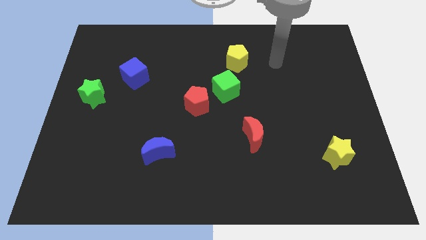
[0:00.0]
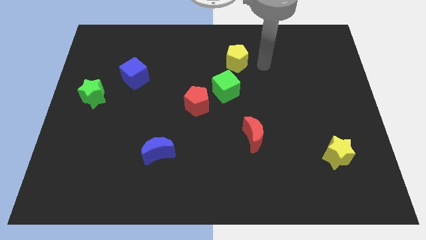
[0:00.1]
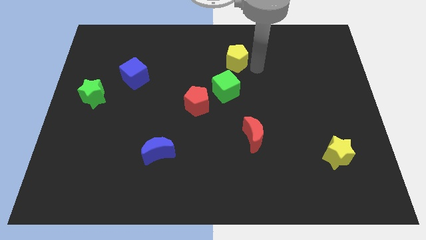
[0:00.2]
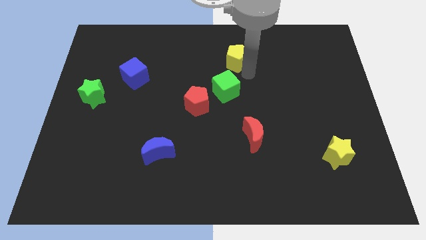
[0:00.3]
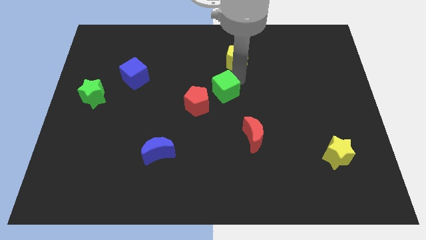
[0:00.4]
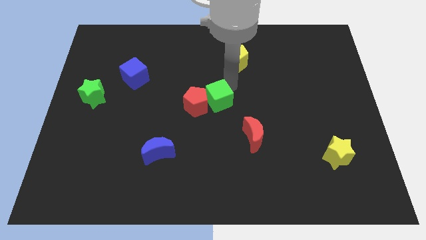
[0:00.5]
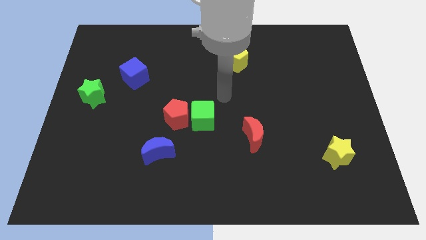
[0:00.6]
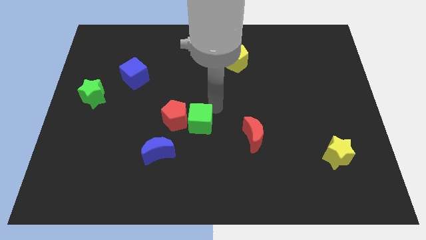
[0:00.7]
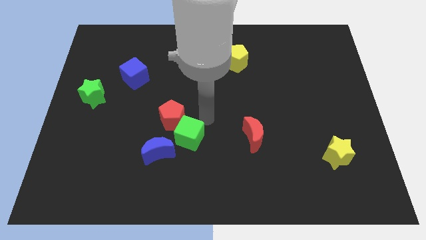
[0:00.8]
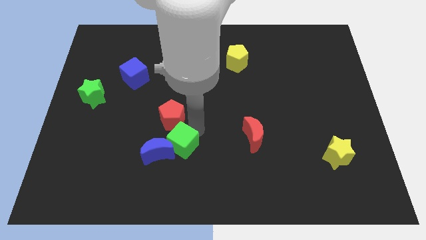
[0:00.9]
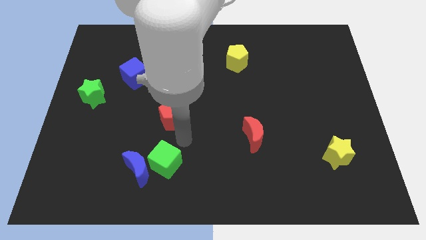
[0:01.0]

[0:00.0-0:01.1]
separate the red pentagon from the green cube

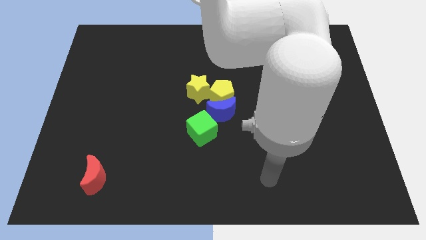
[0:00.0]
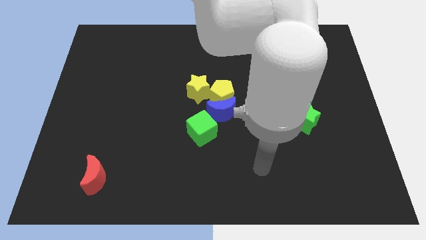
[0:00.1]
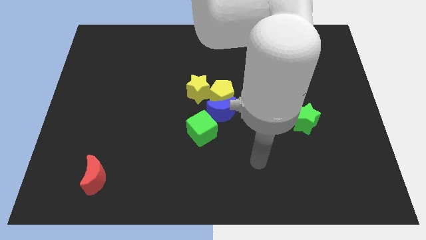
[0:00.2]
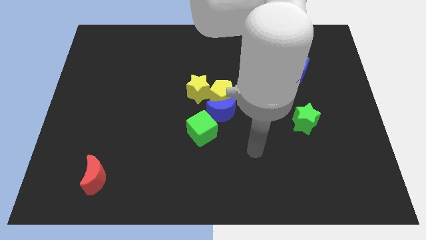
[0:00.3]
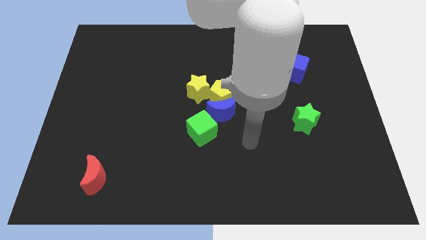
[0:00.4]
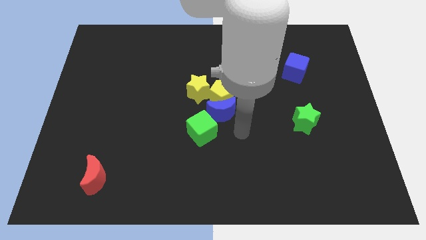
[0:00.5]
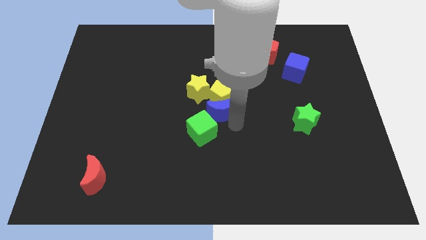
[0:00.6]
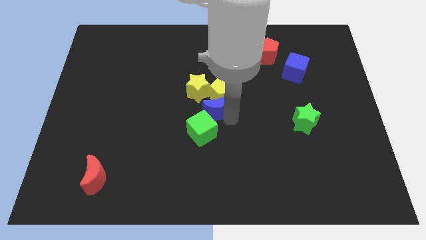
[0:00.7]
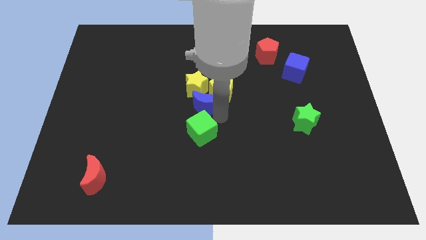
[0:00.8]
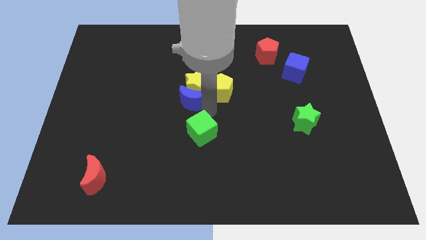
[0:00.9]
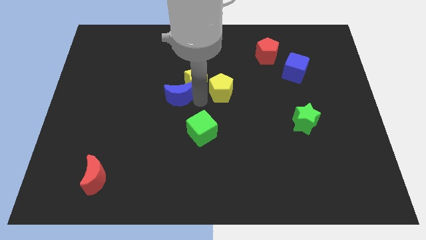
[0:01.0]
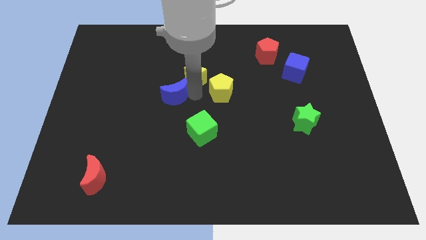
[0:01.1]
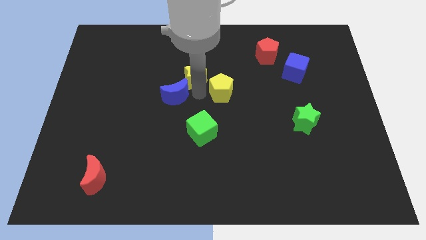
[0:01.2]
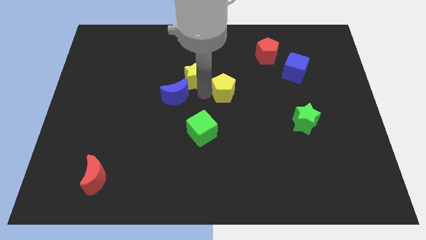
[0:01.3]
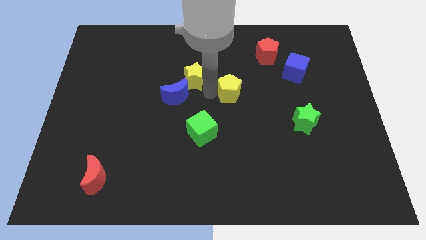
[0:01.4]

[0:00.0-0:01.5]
separate the yellow pentagon from the blue moon and yellow star

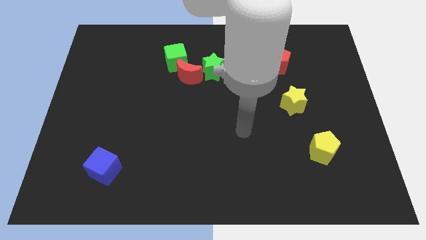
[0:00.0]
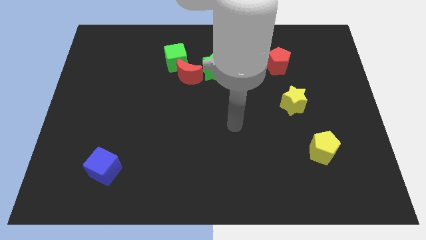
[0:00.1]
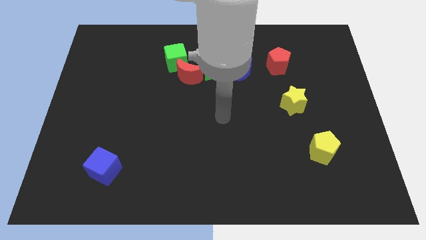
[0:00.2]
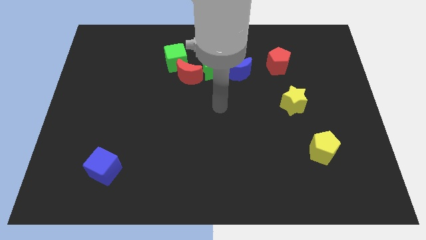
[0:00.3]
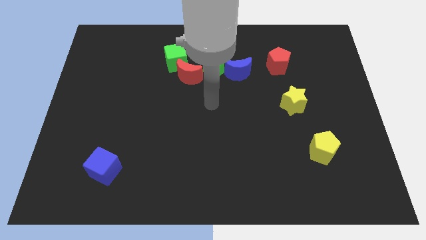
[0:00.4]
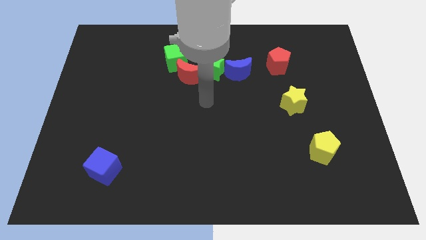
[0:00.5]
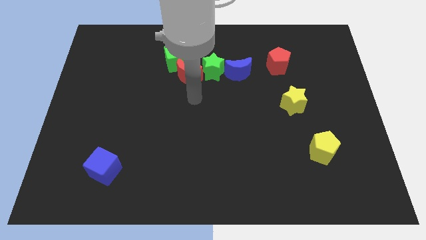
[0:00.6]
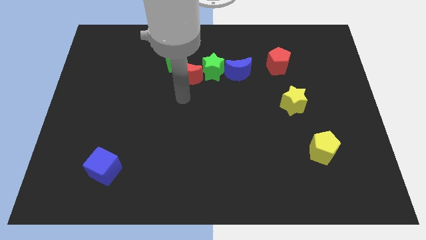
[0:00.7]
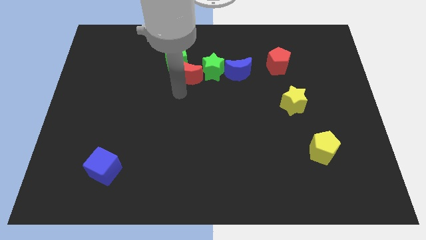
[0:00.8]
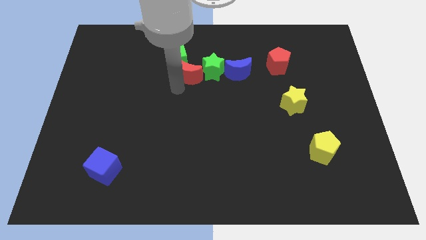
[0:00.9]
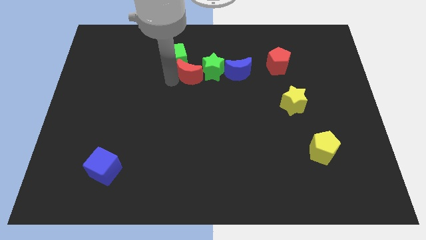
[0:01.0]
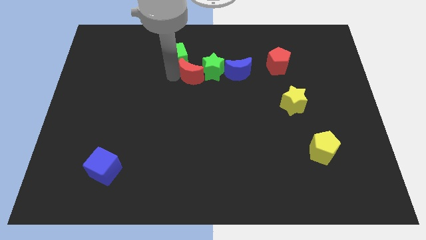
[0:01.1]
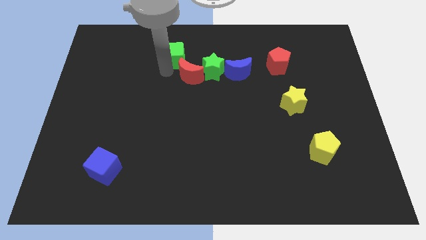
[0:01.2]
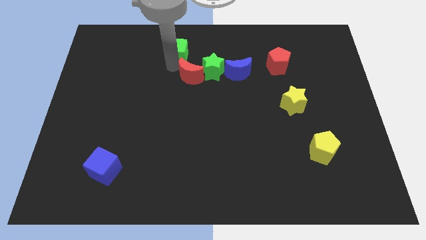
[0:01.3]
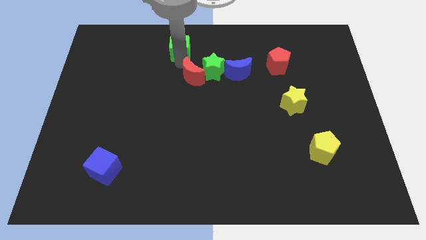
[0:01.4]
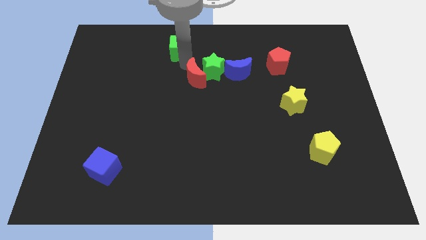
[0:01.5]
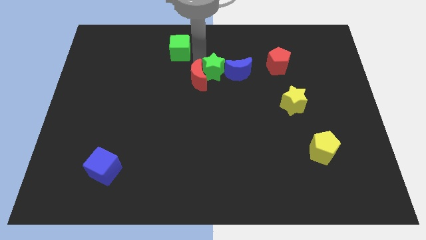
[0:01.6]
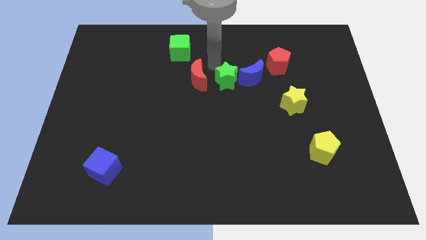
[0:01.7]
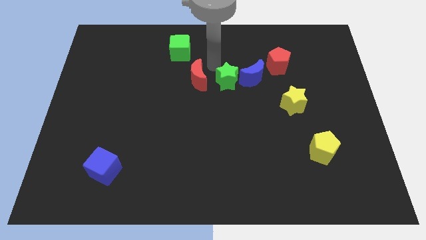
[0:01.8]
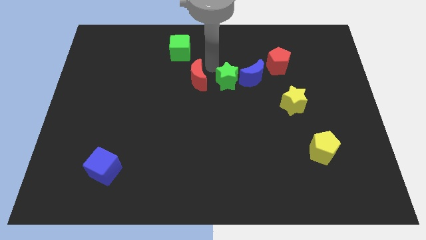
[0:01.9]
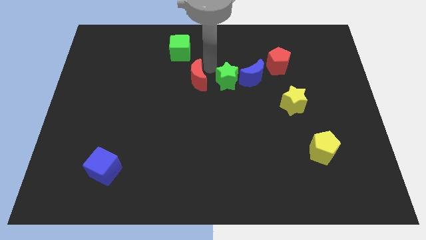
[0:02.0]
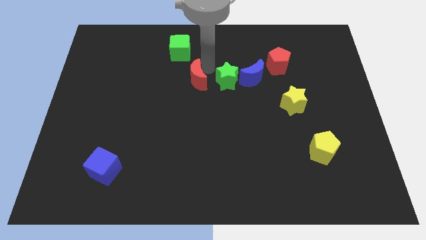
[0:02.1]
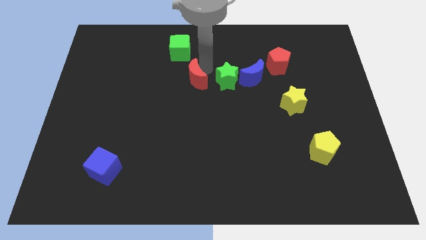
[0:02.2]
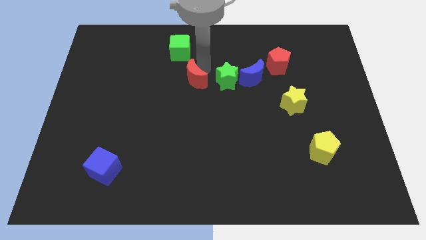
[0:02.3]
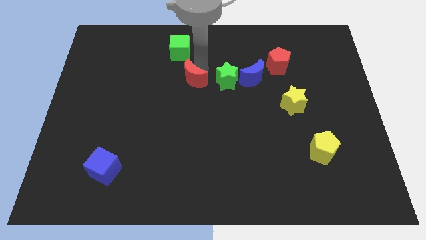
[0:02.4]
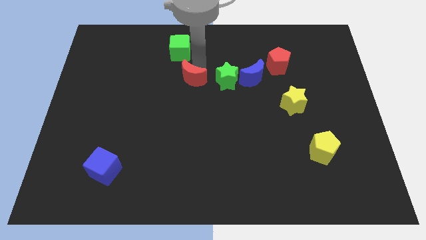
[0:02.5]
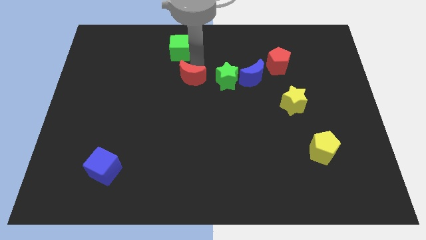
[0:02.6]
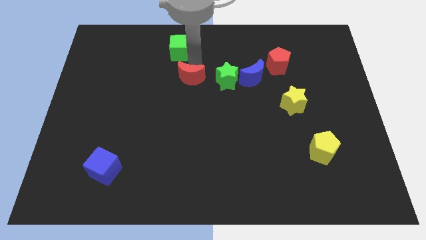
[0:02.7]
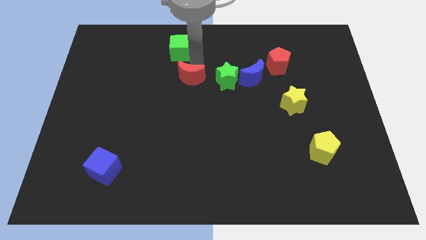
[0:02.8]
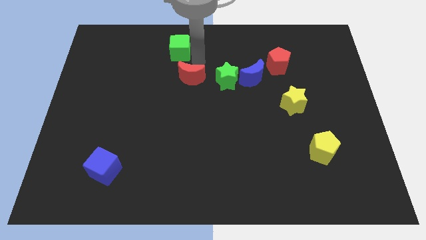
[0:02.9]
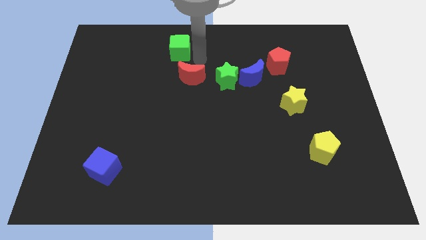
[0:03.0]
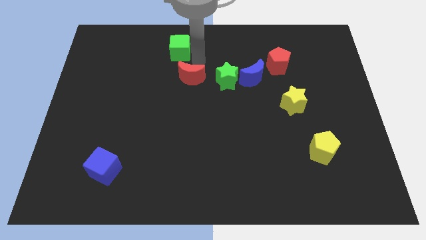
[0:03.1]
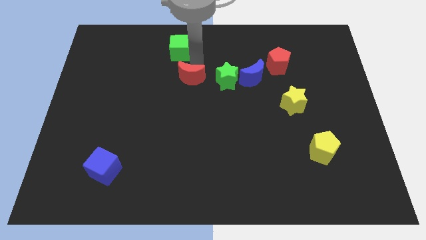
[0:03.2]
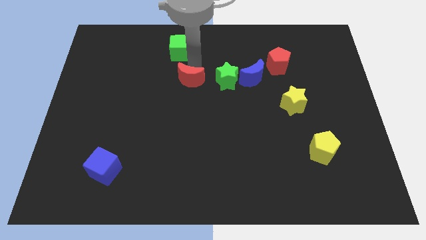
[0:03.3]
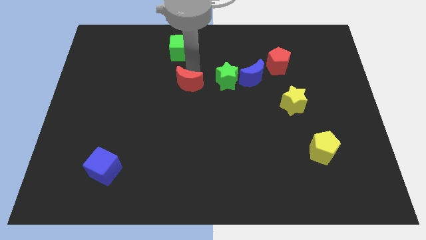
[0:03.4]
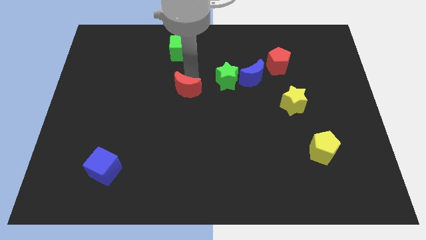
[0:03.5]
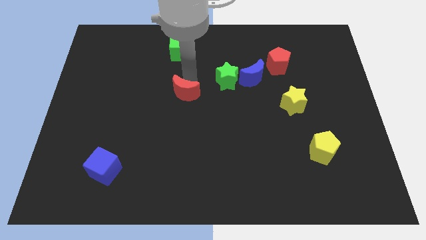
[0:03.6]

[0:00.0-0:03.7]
pull the red moon apart from the green star and green cube

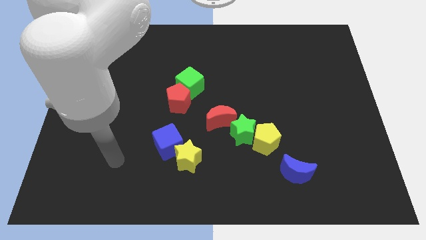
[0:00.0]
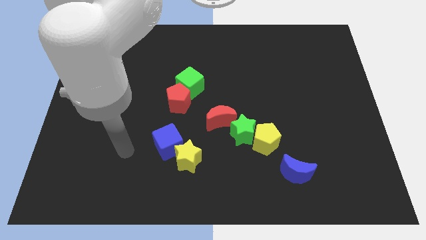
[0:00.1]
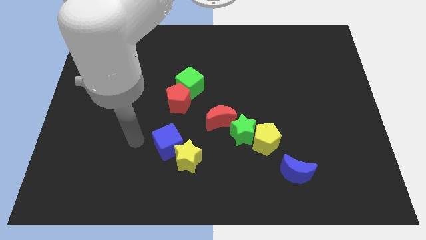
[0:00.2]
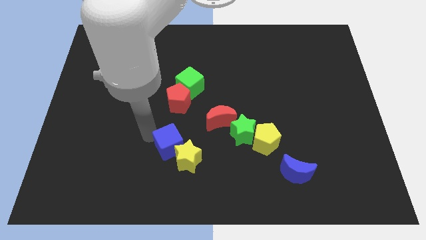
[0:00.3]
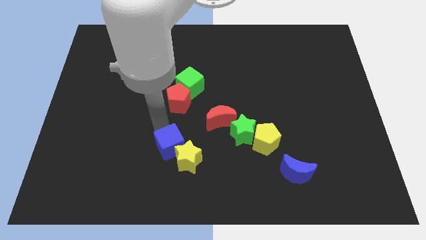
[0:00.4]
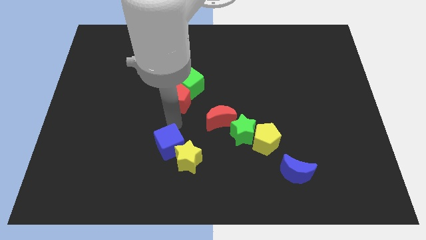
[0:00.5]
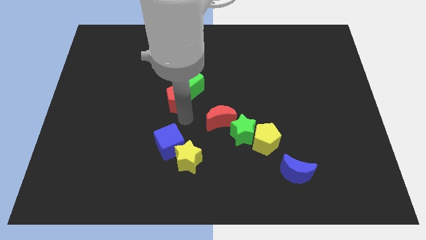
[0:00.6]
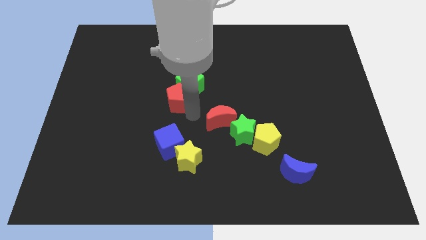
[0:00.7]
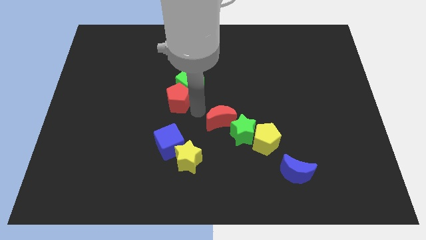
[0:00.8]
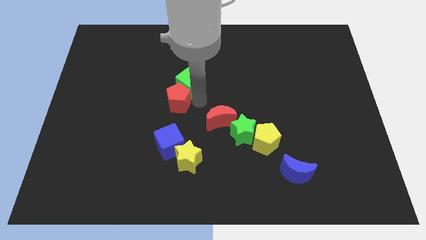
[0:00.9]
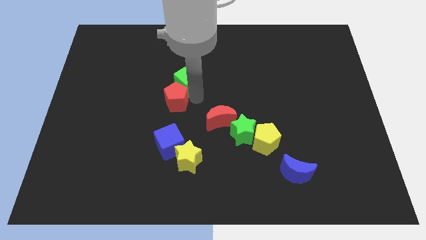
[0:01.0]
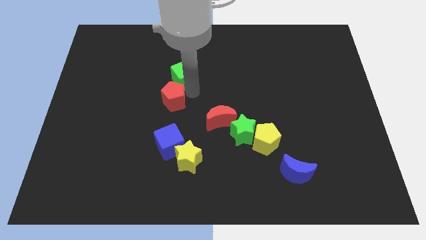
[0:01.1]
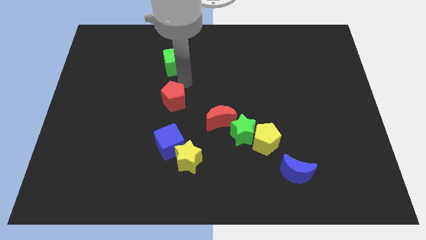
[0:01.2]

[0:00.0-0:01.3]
move the red pentagon away from the green cube

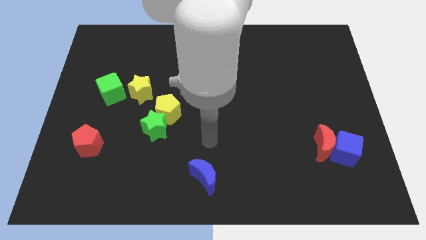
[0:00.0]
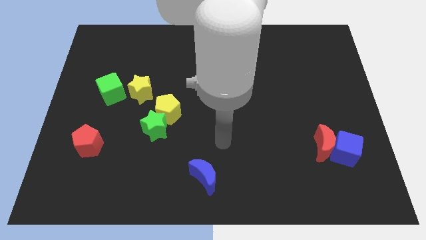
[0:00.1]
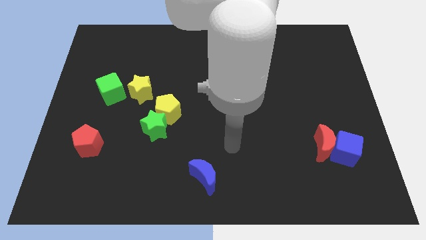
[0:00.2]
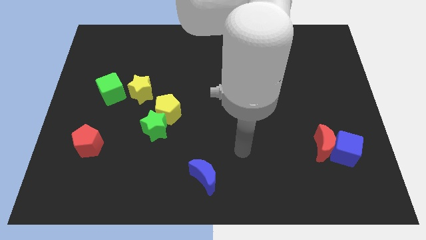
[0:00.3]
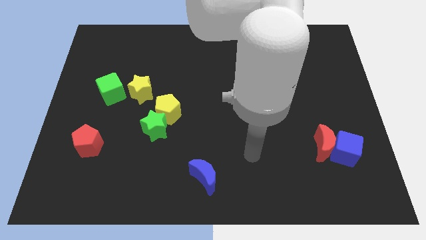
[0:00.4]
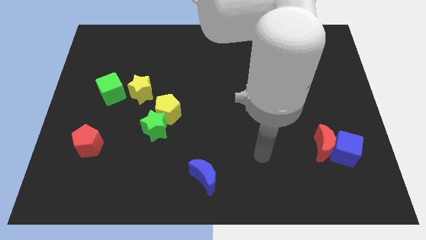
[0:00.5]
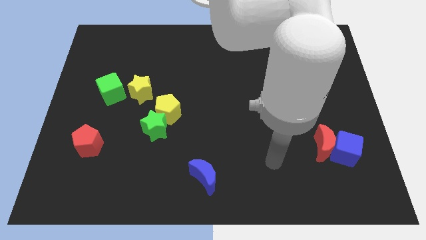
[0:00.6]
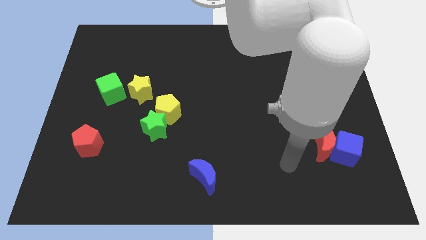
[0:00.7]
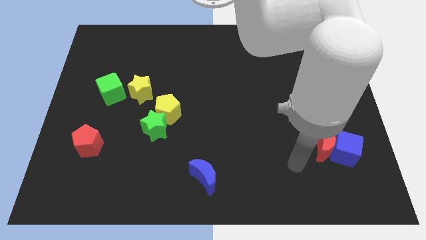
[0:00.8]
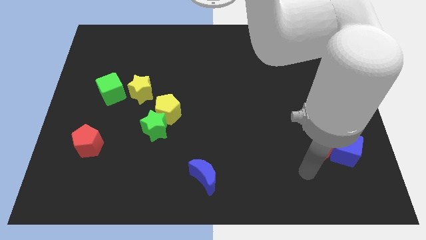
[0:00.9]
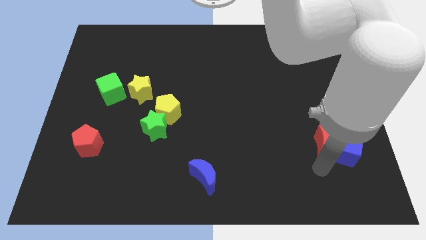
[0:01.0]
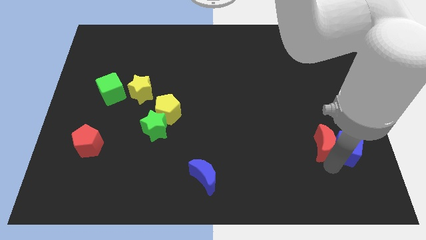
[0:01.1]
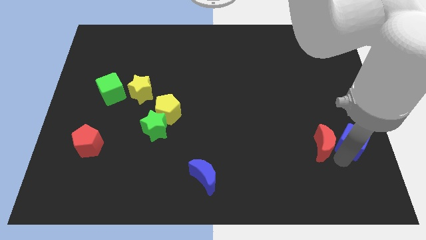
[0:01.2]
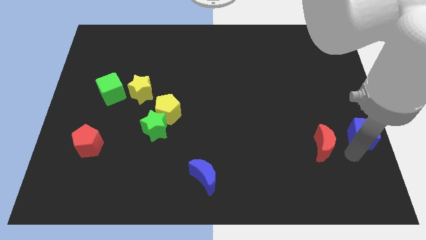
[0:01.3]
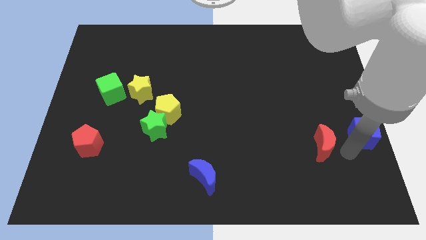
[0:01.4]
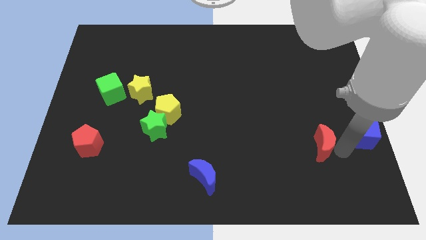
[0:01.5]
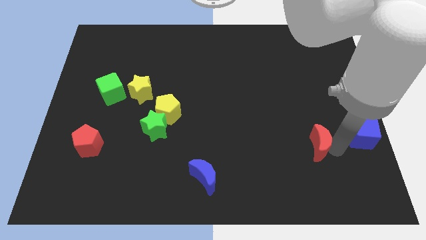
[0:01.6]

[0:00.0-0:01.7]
separate the red moon from the blue cube
